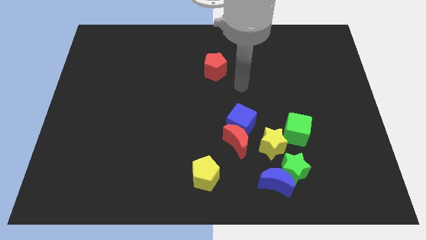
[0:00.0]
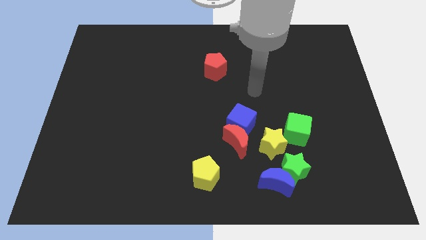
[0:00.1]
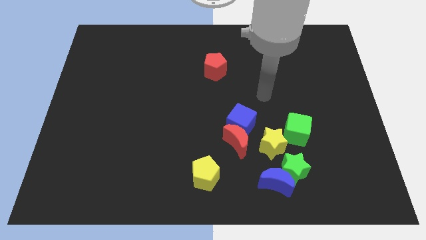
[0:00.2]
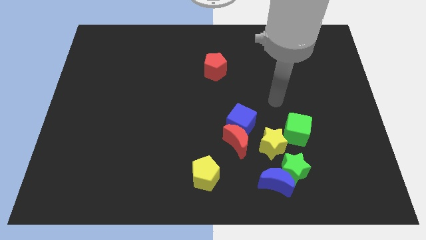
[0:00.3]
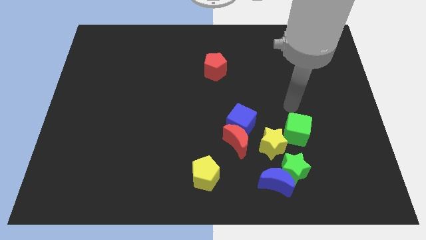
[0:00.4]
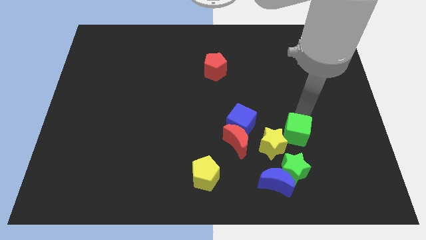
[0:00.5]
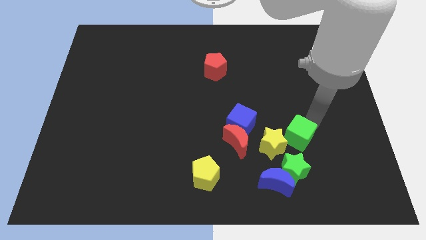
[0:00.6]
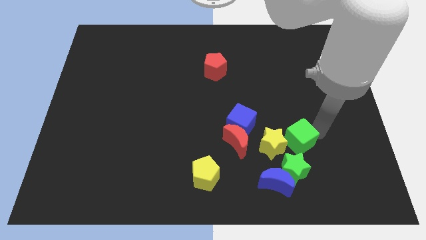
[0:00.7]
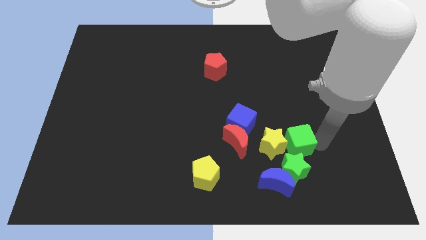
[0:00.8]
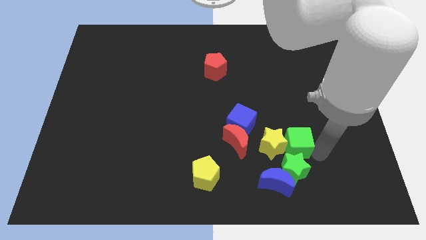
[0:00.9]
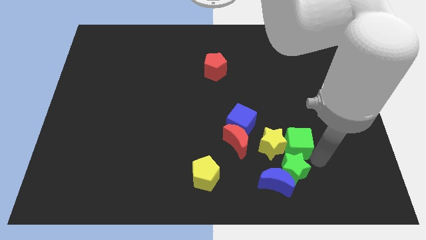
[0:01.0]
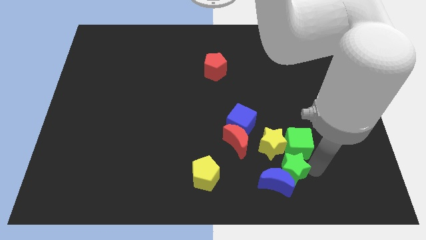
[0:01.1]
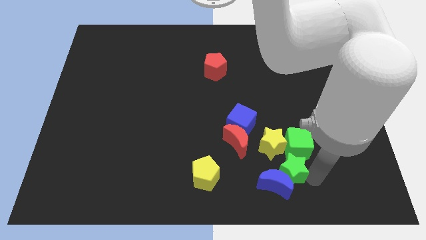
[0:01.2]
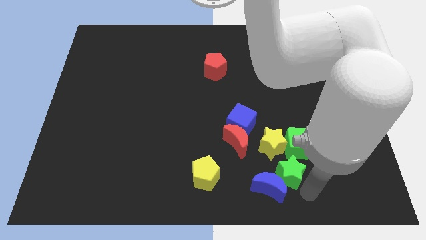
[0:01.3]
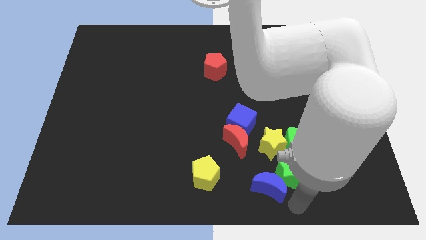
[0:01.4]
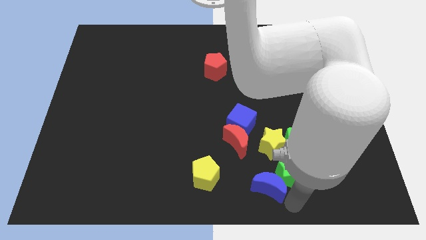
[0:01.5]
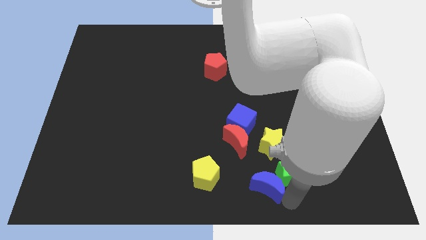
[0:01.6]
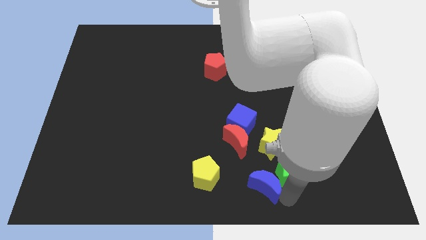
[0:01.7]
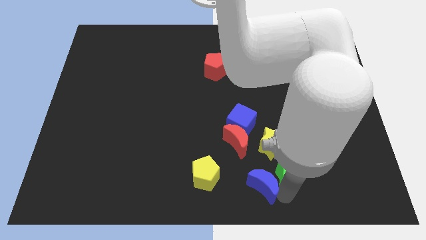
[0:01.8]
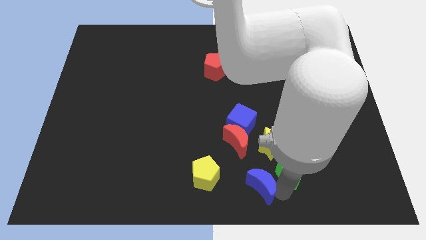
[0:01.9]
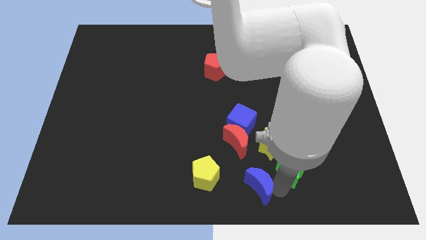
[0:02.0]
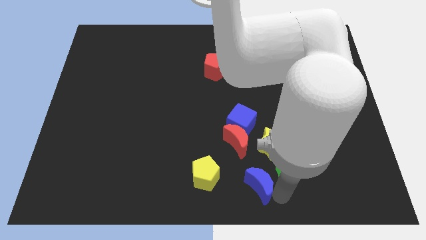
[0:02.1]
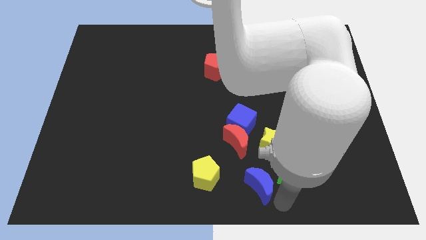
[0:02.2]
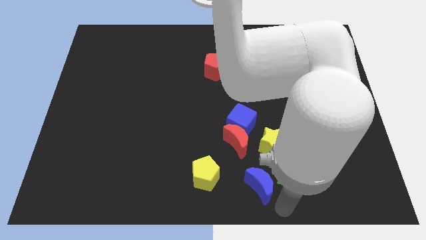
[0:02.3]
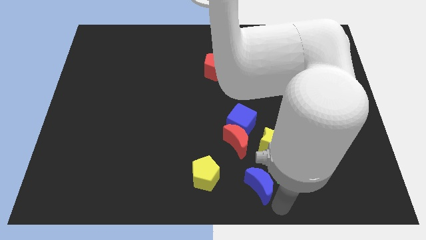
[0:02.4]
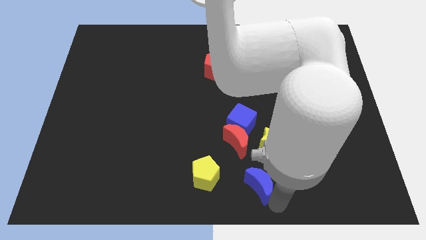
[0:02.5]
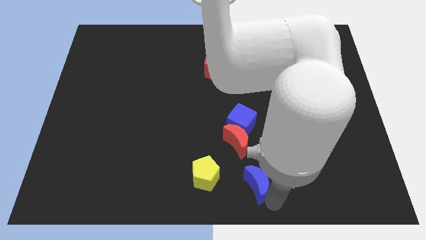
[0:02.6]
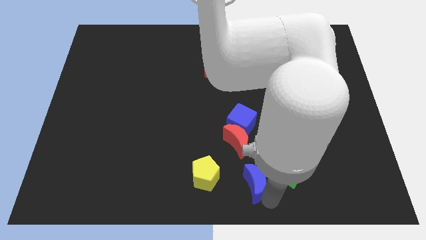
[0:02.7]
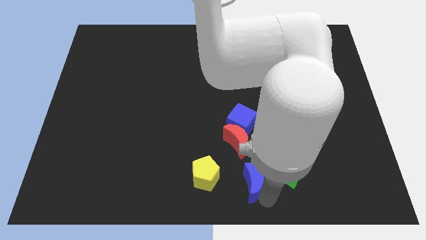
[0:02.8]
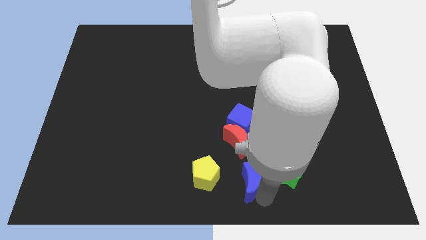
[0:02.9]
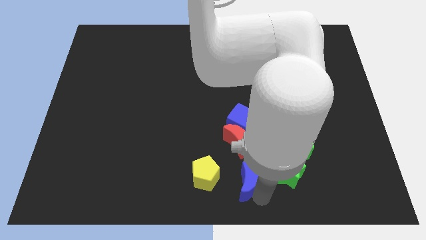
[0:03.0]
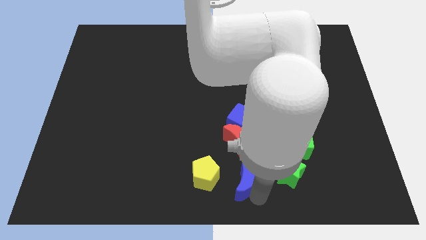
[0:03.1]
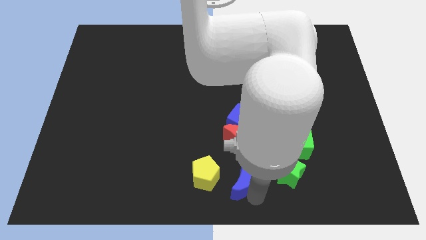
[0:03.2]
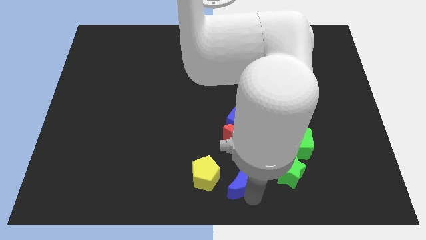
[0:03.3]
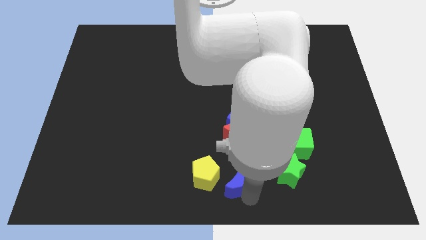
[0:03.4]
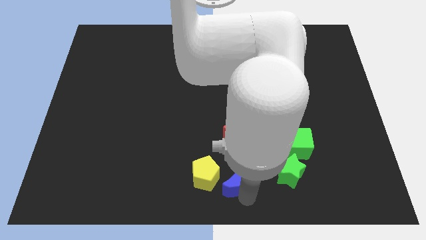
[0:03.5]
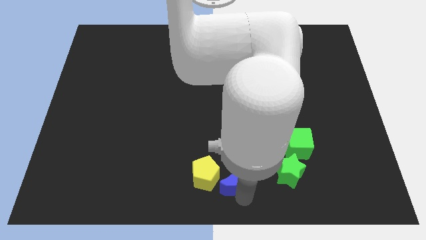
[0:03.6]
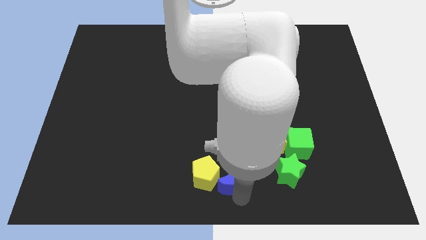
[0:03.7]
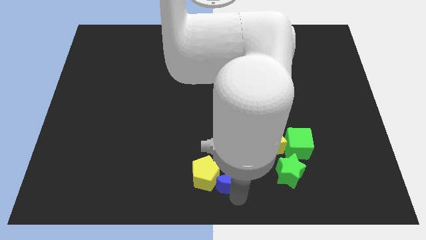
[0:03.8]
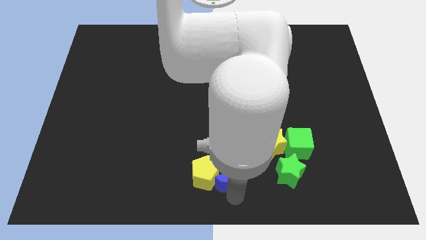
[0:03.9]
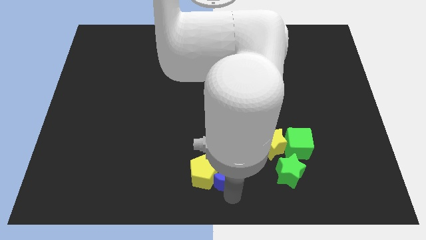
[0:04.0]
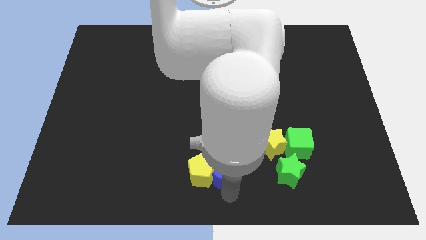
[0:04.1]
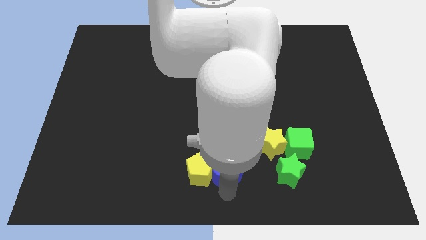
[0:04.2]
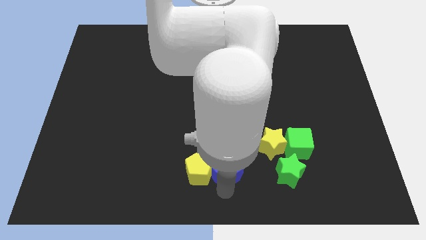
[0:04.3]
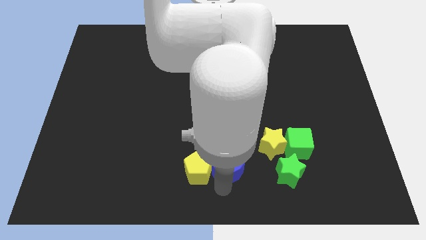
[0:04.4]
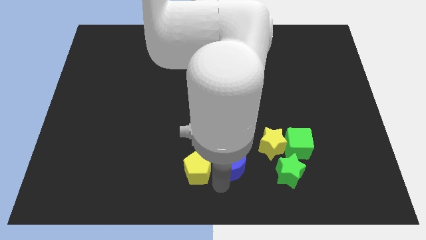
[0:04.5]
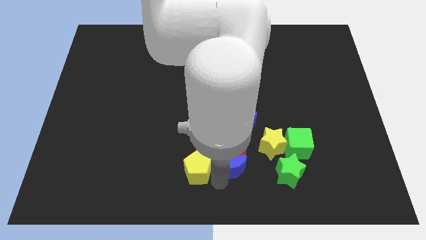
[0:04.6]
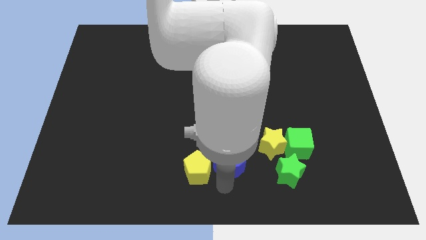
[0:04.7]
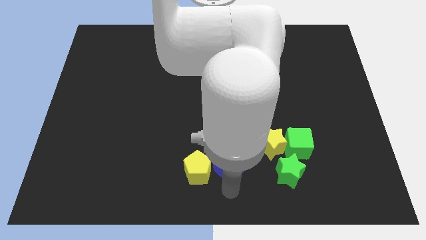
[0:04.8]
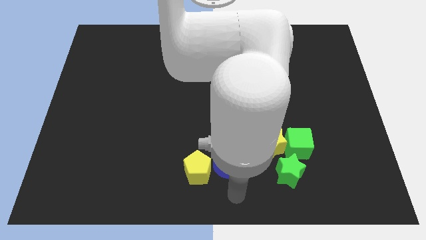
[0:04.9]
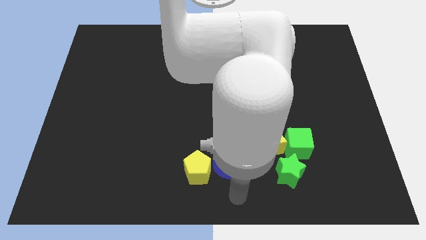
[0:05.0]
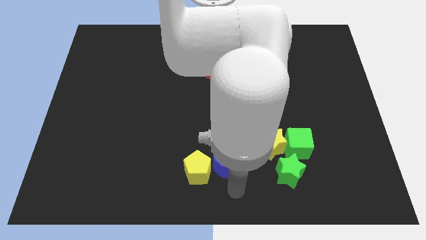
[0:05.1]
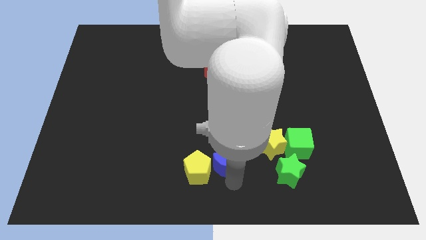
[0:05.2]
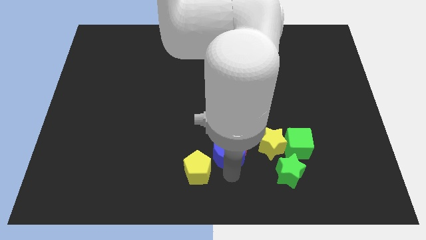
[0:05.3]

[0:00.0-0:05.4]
push the blue moon left of the yellow star

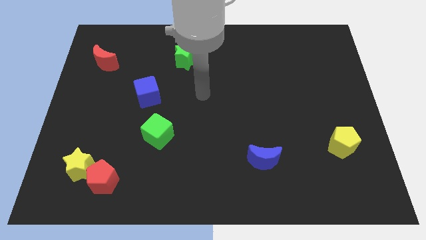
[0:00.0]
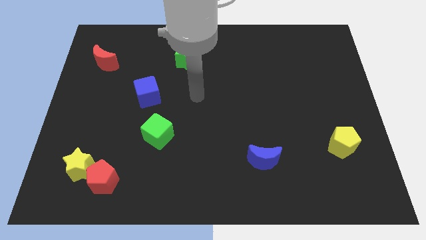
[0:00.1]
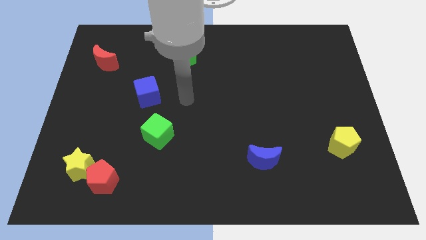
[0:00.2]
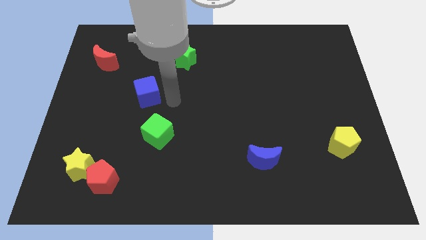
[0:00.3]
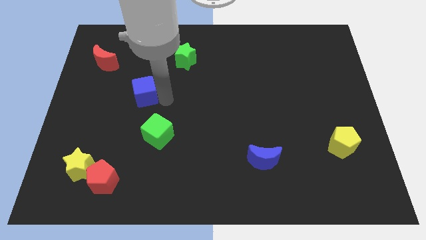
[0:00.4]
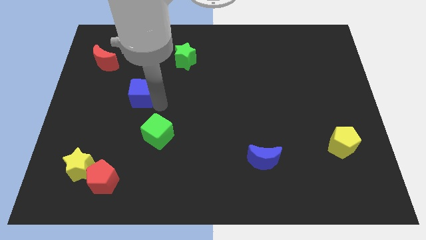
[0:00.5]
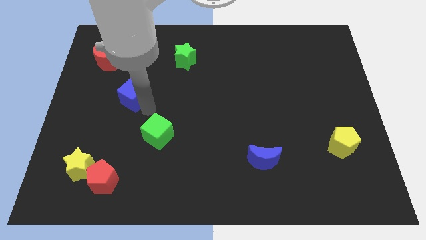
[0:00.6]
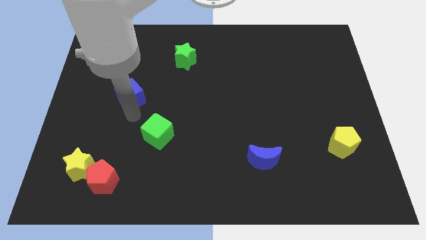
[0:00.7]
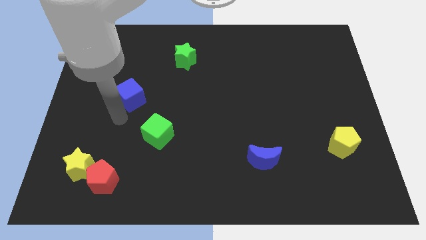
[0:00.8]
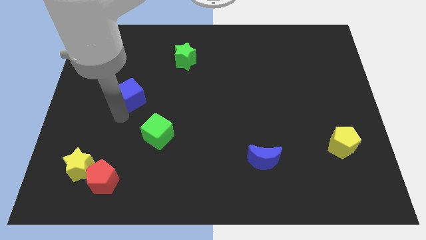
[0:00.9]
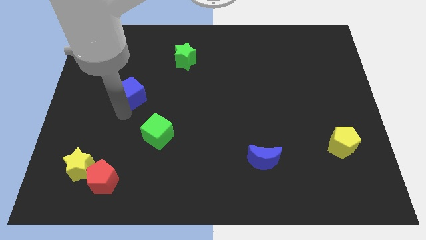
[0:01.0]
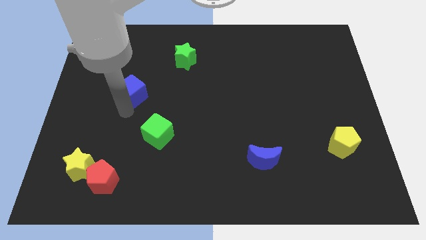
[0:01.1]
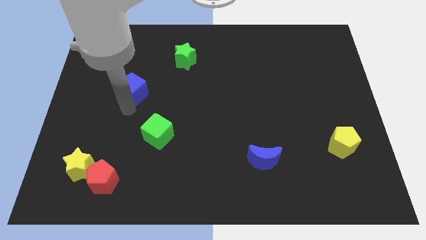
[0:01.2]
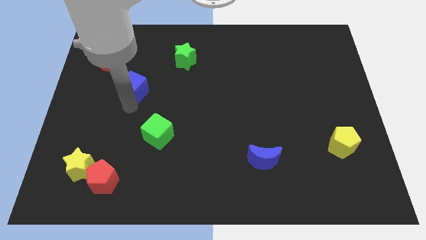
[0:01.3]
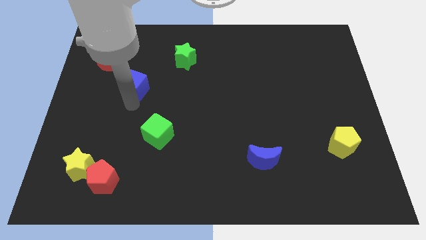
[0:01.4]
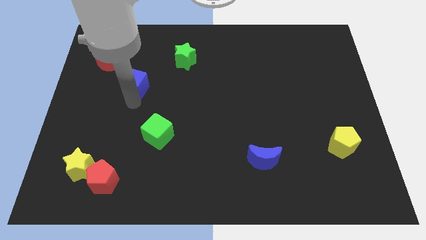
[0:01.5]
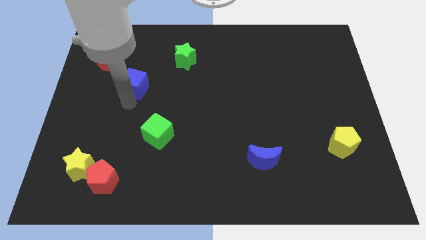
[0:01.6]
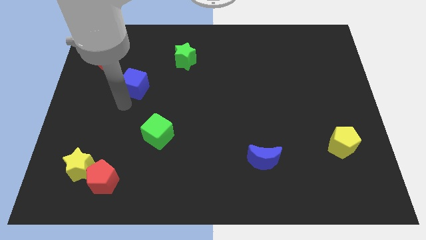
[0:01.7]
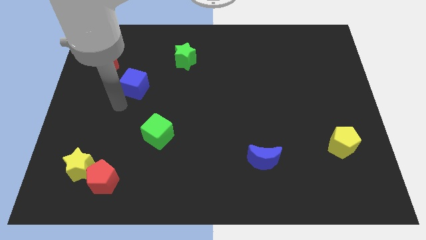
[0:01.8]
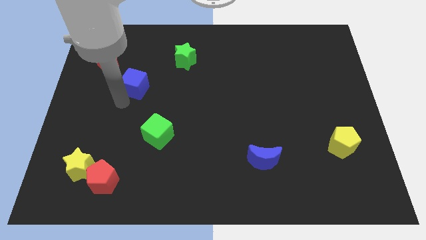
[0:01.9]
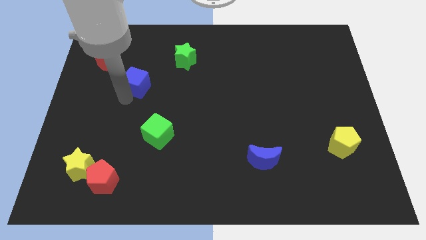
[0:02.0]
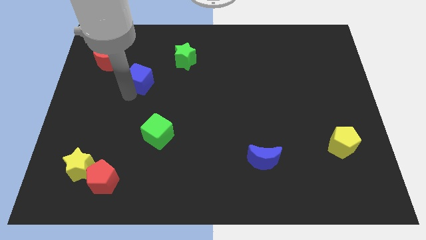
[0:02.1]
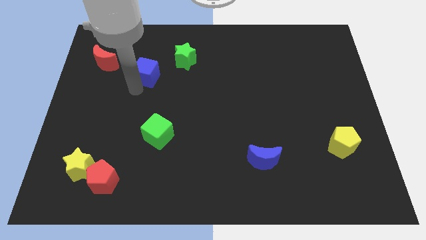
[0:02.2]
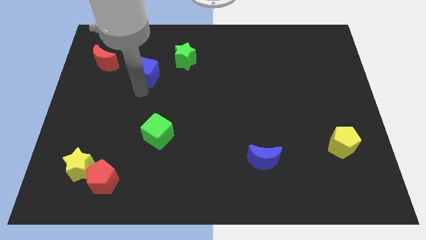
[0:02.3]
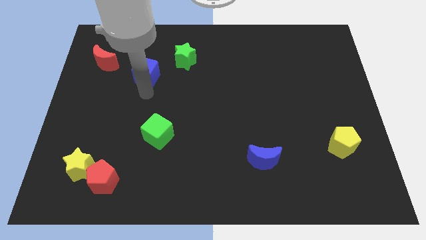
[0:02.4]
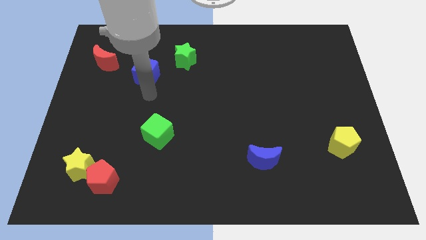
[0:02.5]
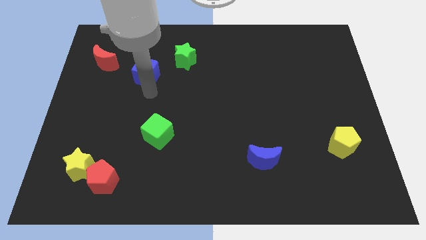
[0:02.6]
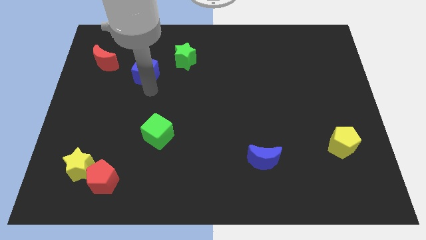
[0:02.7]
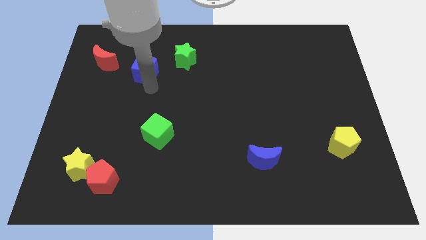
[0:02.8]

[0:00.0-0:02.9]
put the blue cube left of the green star
